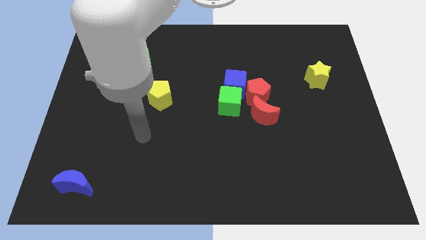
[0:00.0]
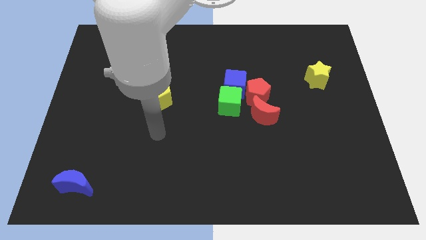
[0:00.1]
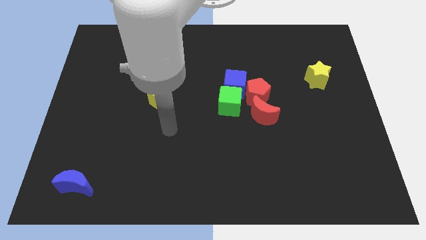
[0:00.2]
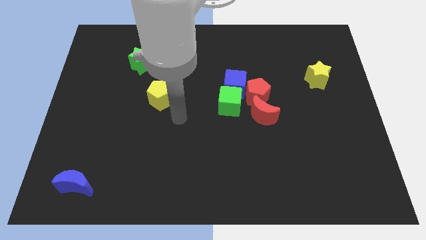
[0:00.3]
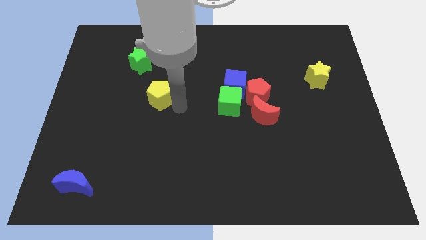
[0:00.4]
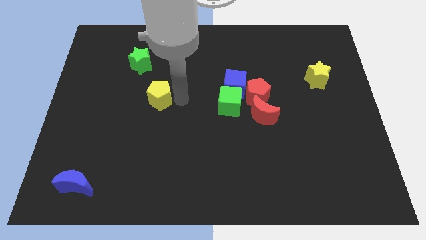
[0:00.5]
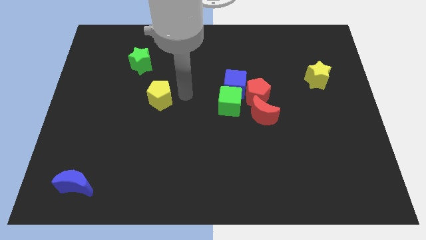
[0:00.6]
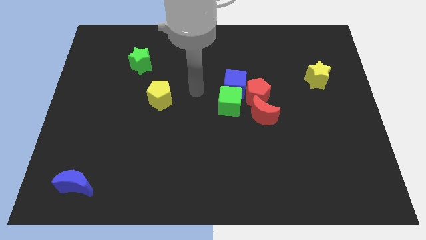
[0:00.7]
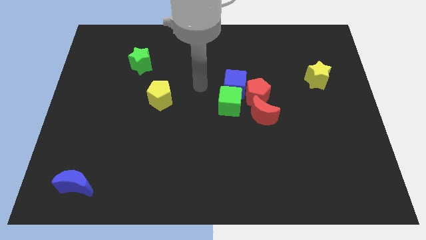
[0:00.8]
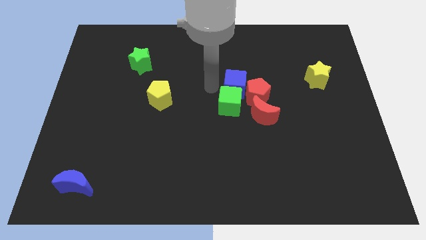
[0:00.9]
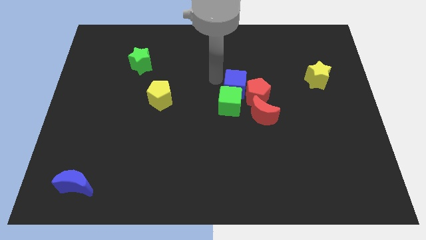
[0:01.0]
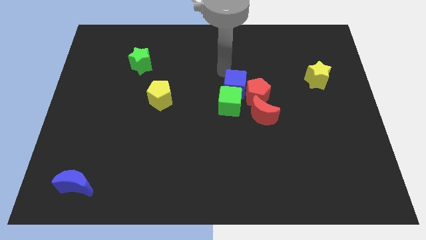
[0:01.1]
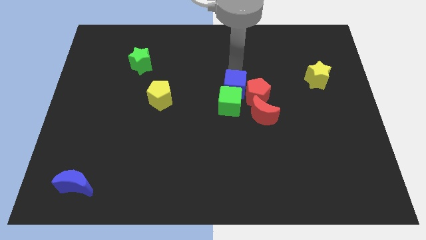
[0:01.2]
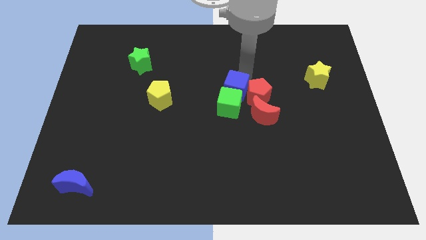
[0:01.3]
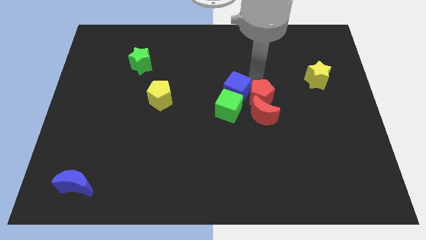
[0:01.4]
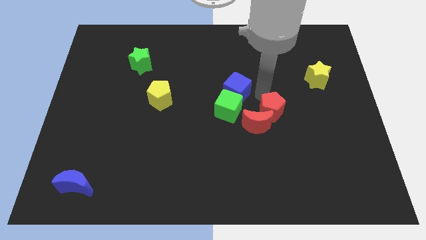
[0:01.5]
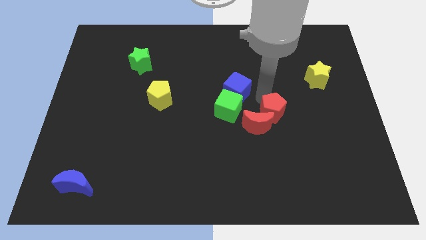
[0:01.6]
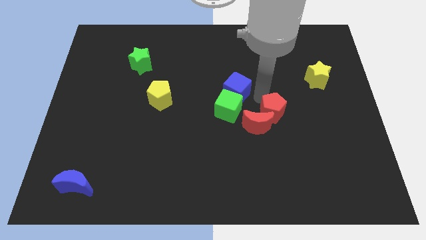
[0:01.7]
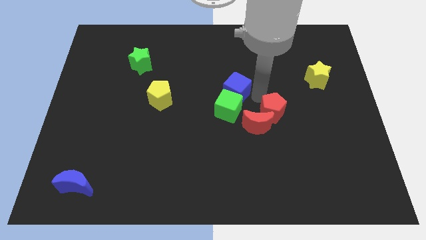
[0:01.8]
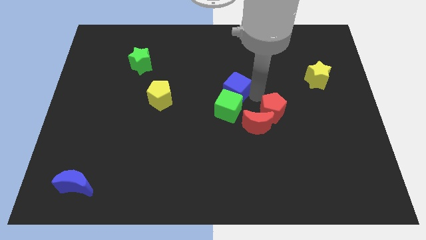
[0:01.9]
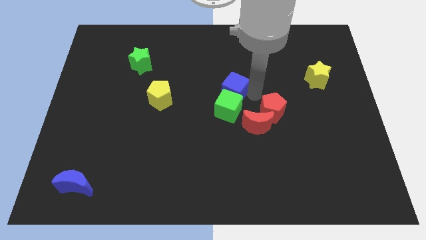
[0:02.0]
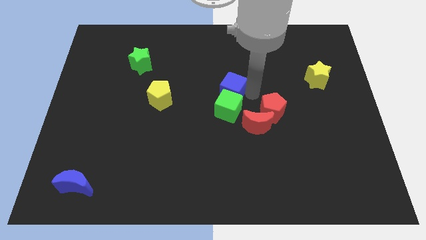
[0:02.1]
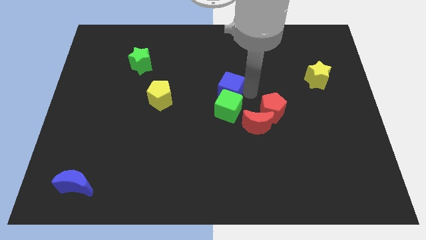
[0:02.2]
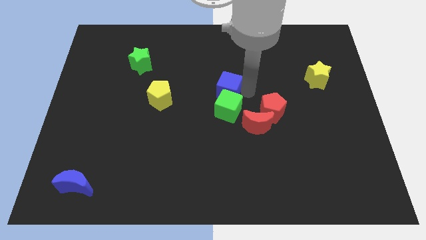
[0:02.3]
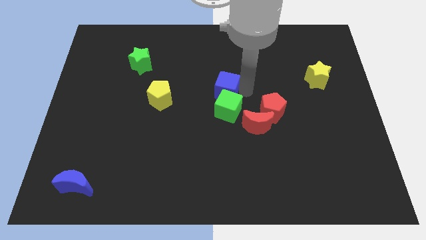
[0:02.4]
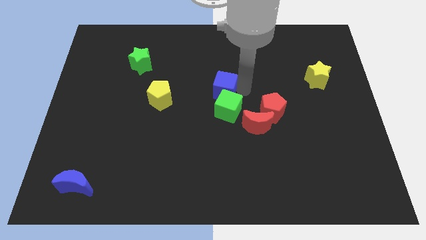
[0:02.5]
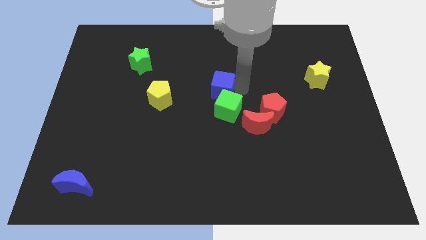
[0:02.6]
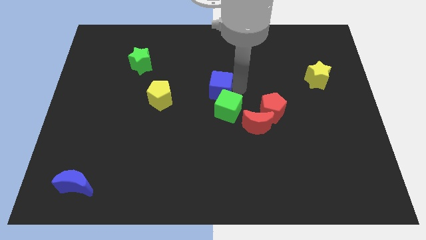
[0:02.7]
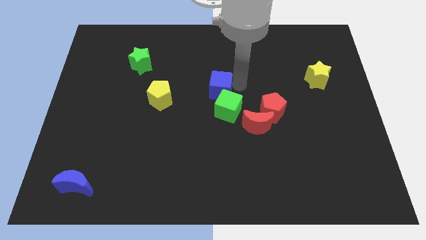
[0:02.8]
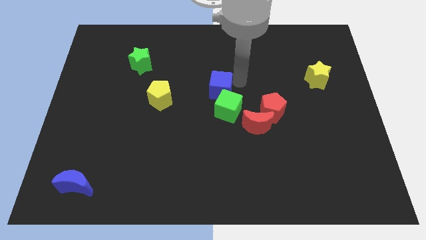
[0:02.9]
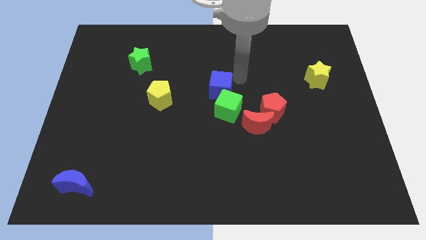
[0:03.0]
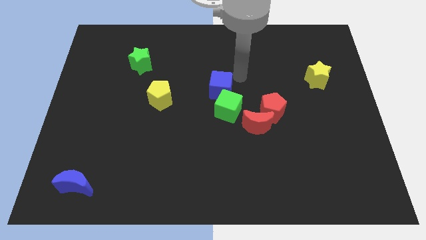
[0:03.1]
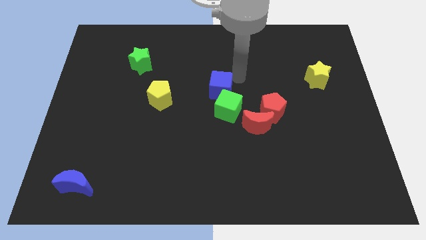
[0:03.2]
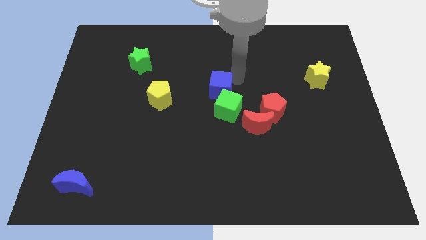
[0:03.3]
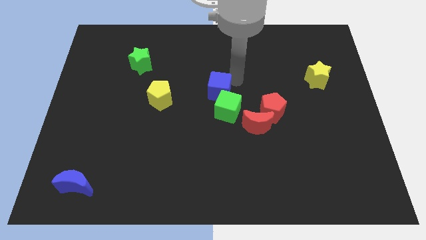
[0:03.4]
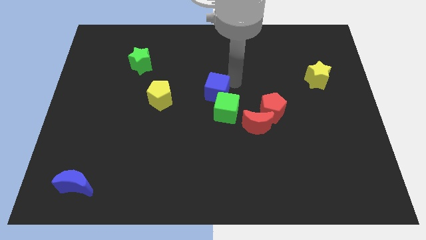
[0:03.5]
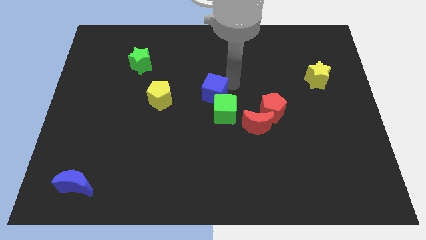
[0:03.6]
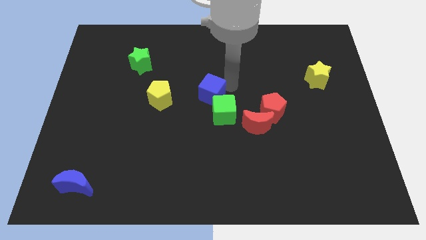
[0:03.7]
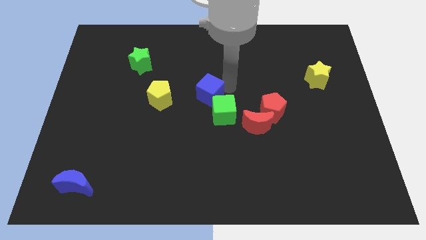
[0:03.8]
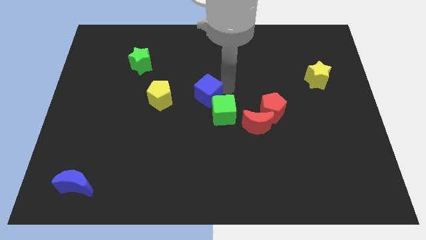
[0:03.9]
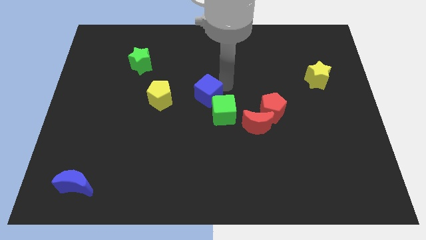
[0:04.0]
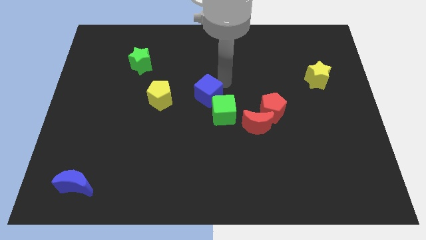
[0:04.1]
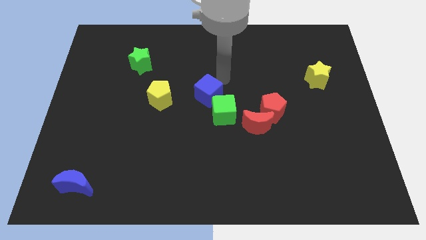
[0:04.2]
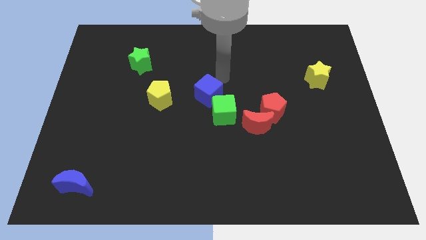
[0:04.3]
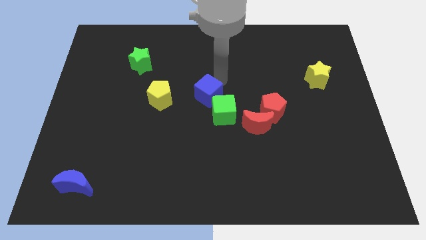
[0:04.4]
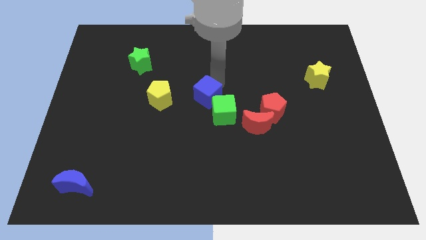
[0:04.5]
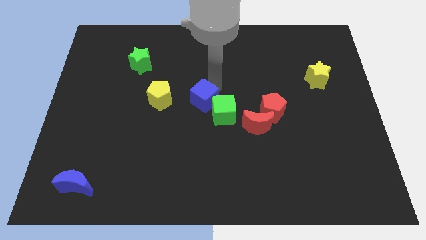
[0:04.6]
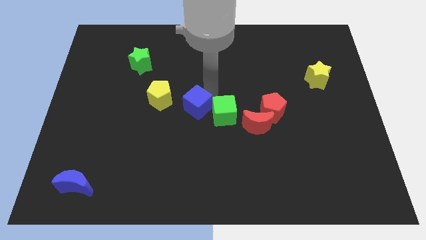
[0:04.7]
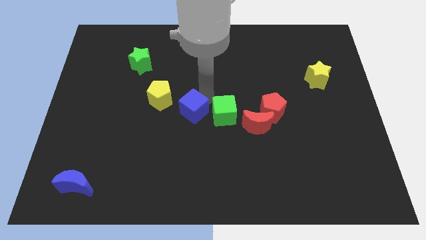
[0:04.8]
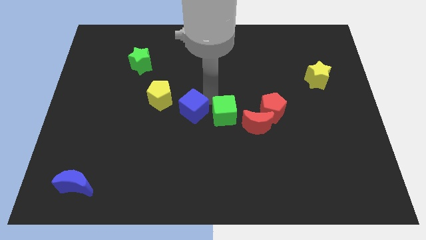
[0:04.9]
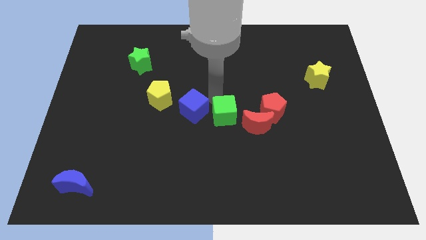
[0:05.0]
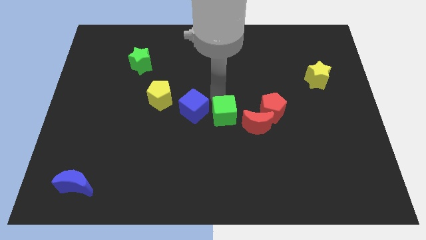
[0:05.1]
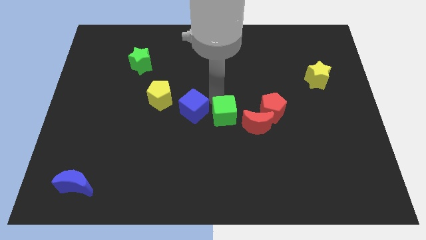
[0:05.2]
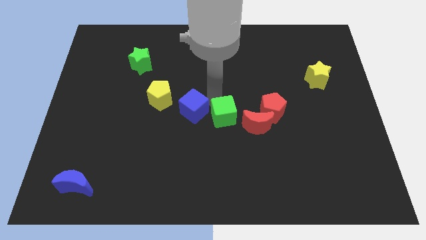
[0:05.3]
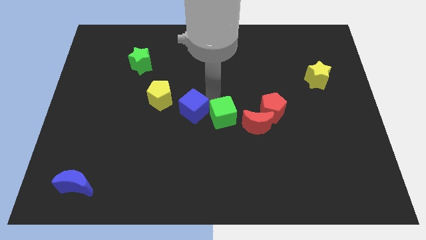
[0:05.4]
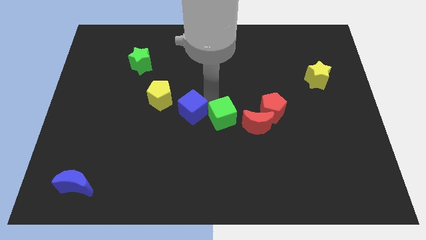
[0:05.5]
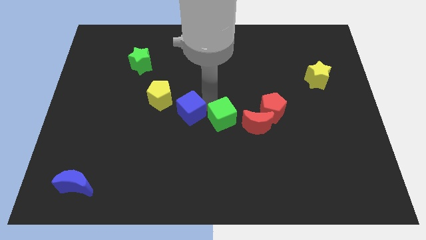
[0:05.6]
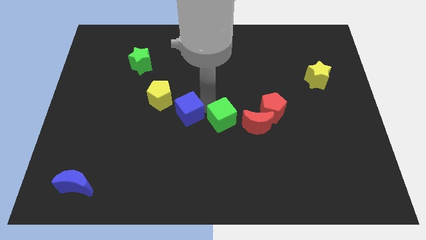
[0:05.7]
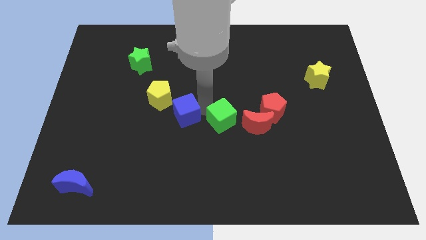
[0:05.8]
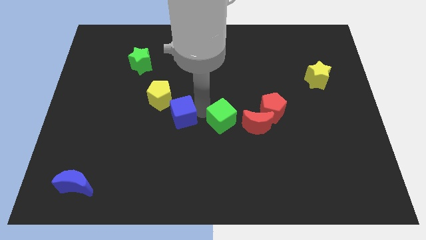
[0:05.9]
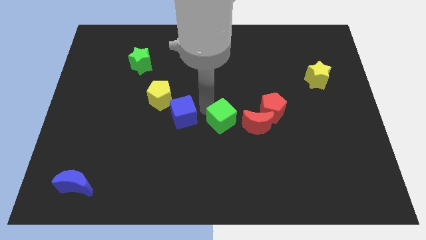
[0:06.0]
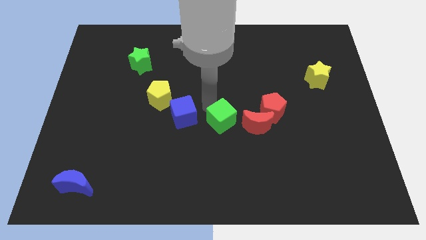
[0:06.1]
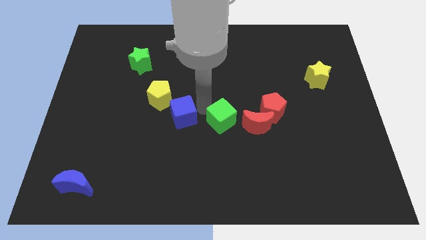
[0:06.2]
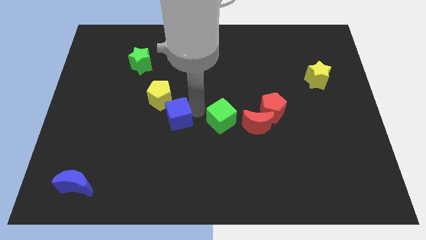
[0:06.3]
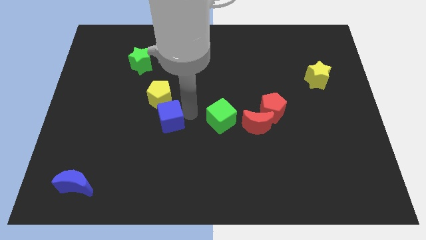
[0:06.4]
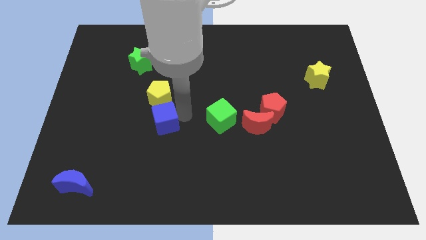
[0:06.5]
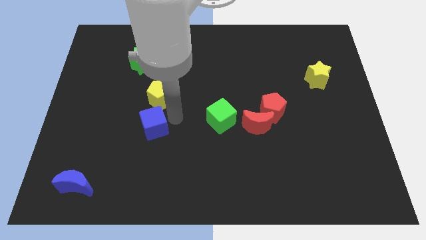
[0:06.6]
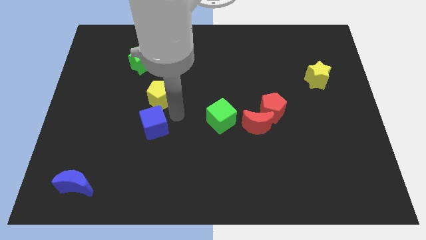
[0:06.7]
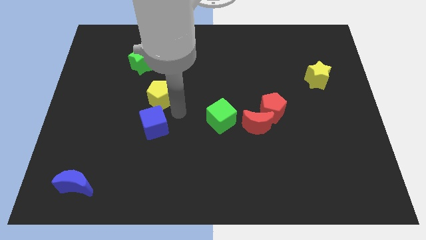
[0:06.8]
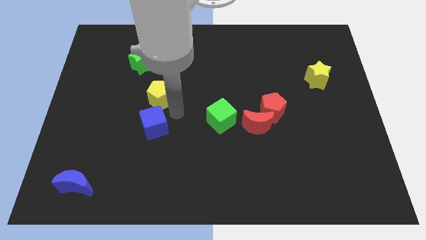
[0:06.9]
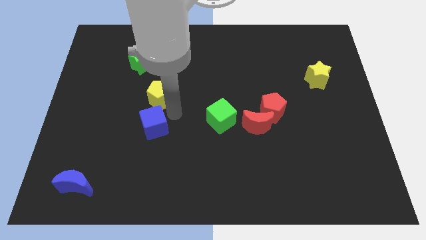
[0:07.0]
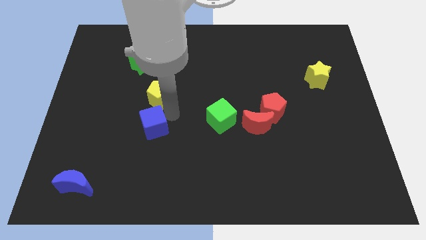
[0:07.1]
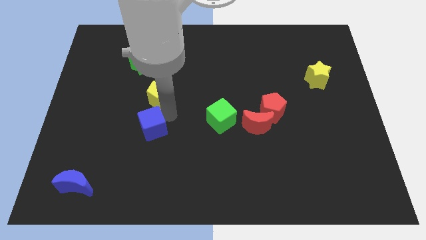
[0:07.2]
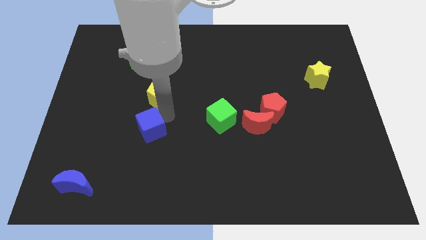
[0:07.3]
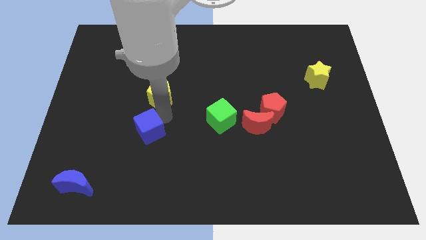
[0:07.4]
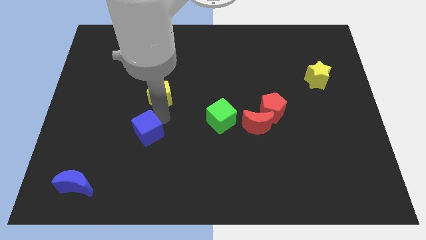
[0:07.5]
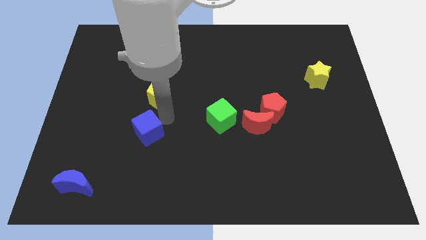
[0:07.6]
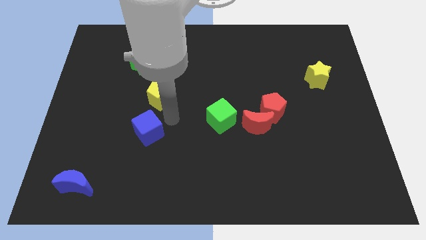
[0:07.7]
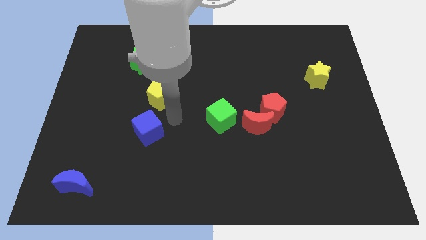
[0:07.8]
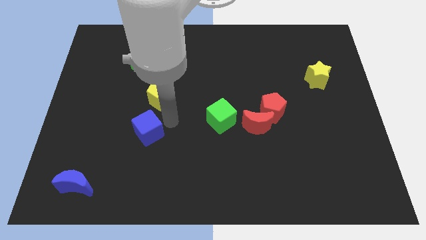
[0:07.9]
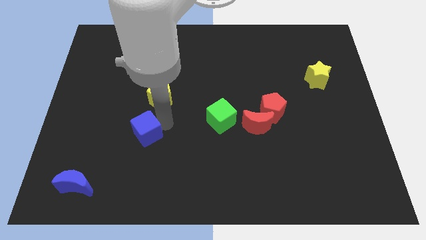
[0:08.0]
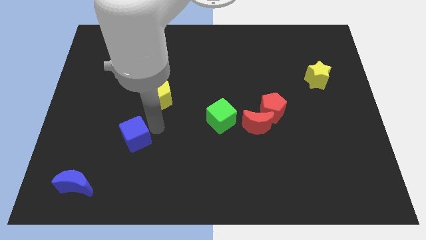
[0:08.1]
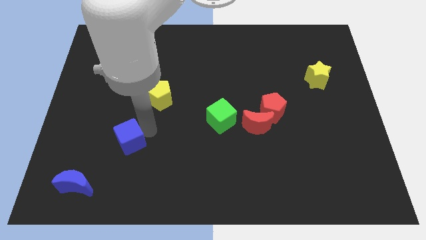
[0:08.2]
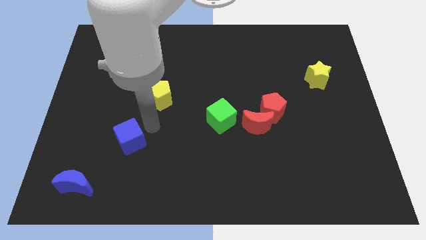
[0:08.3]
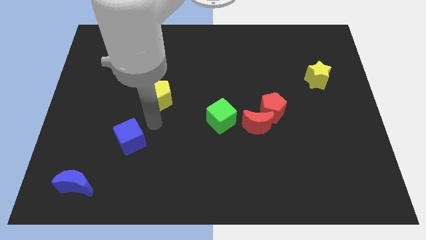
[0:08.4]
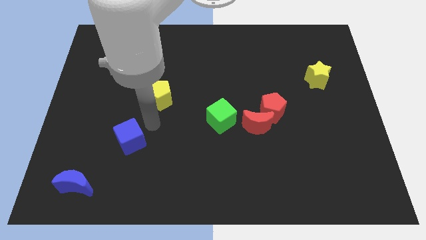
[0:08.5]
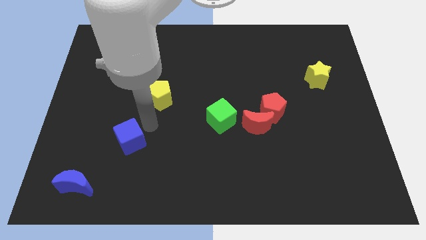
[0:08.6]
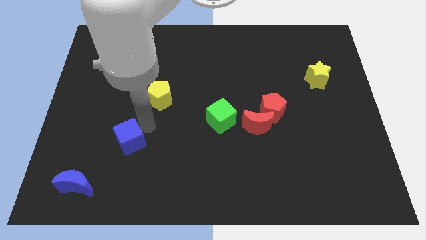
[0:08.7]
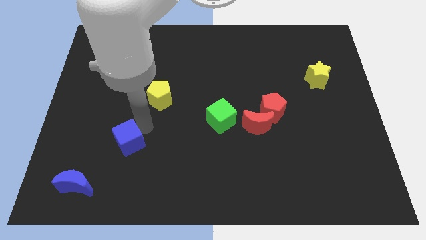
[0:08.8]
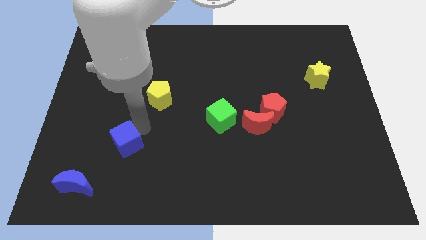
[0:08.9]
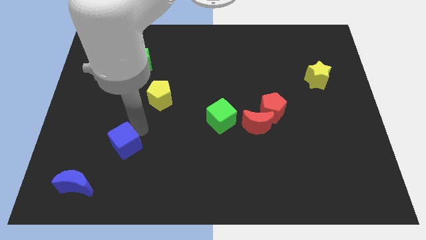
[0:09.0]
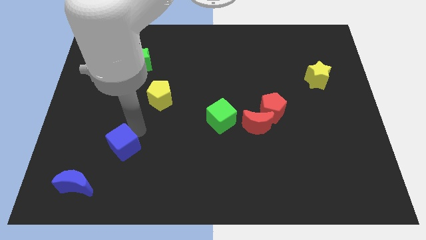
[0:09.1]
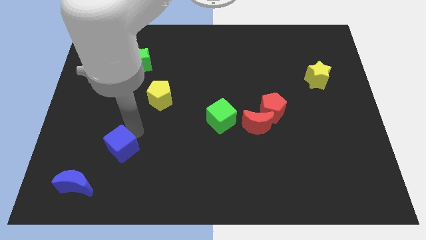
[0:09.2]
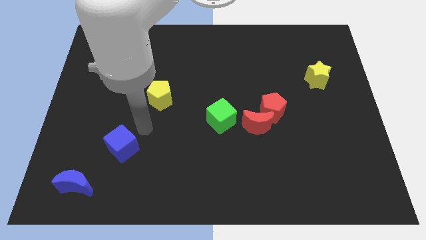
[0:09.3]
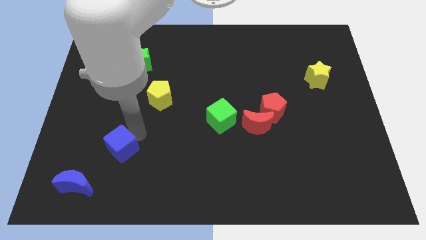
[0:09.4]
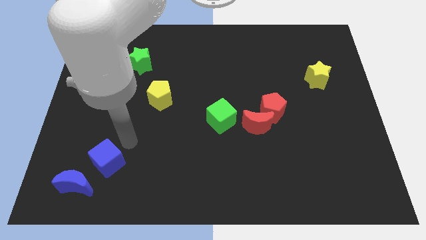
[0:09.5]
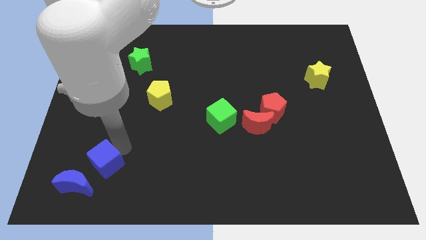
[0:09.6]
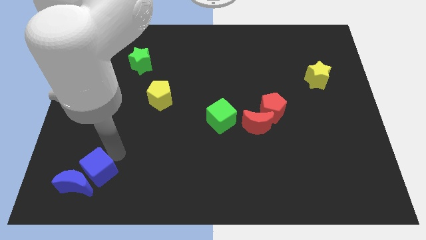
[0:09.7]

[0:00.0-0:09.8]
move the blue cube close to the blue moon
